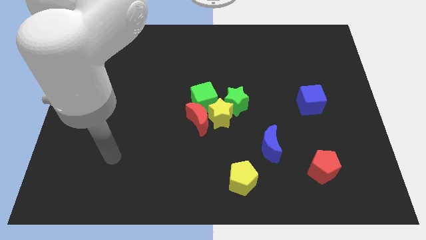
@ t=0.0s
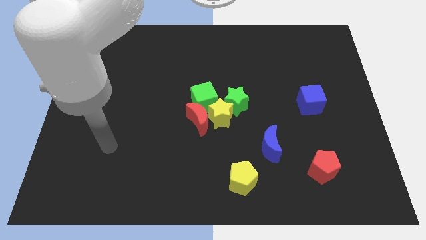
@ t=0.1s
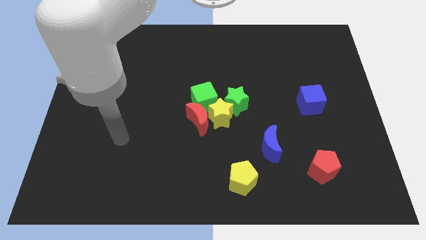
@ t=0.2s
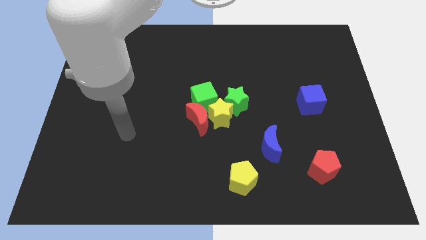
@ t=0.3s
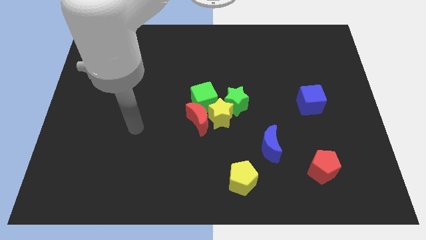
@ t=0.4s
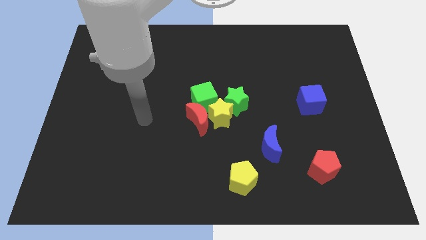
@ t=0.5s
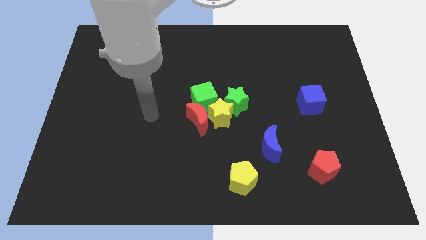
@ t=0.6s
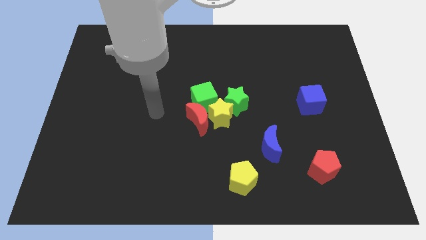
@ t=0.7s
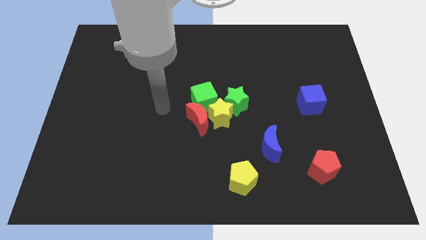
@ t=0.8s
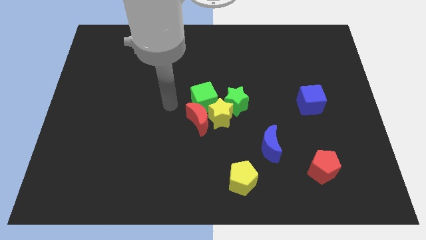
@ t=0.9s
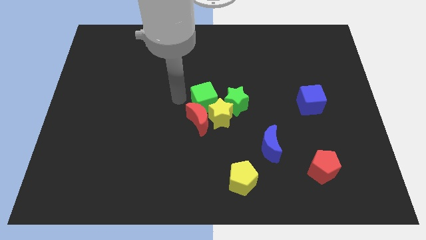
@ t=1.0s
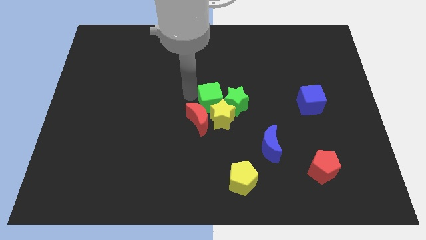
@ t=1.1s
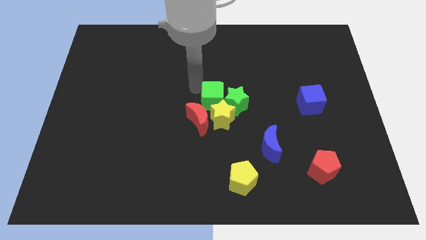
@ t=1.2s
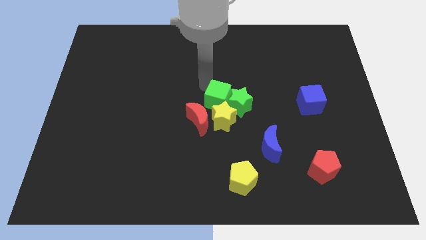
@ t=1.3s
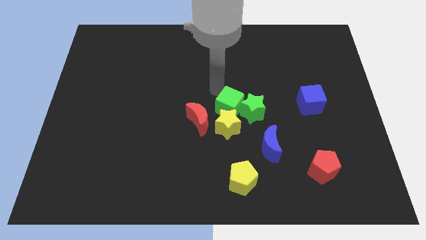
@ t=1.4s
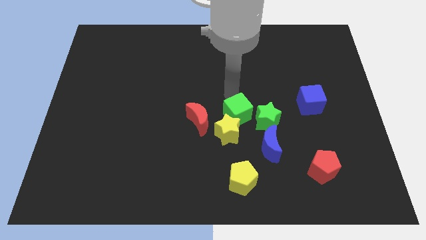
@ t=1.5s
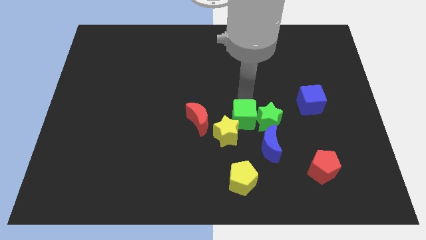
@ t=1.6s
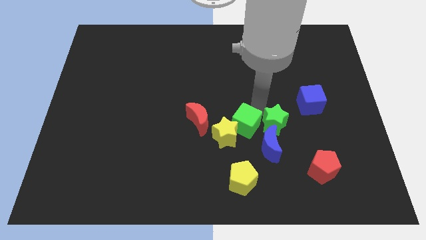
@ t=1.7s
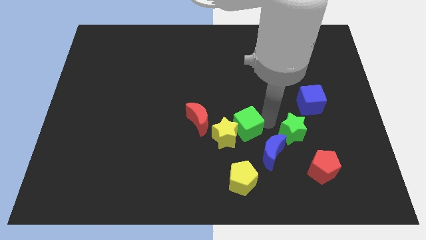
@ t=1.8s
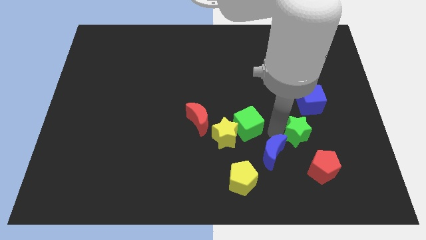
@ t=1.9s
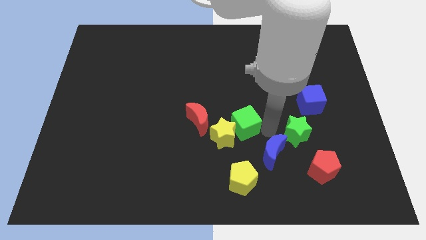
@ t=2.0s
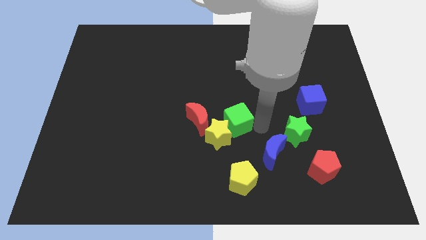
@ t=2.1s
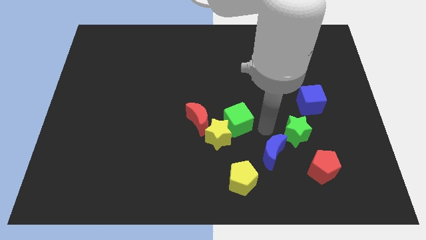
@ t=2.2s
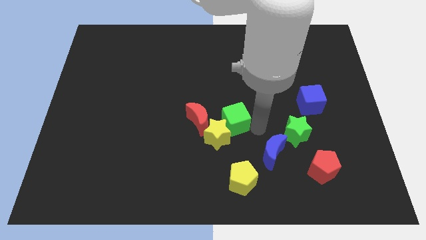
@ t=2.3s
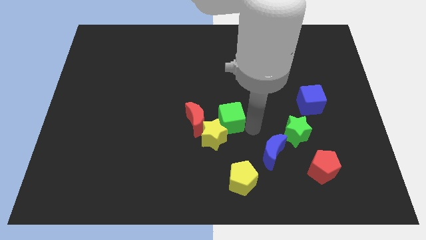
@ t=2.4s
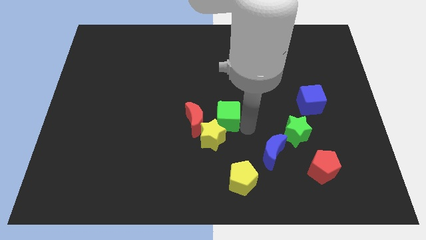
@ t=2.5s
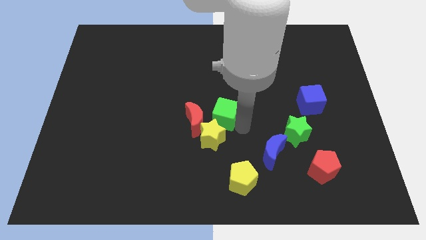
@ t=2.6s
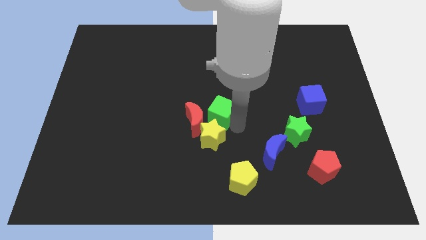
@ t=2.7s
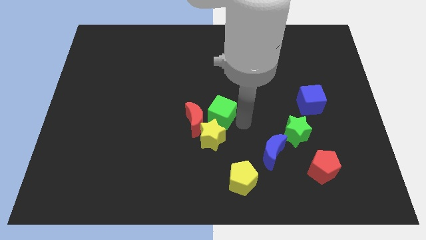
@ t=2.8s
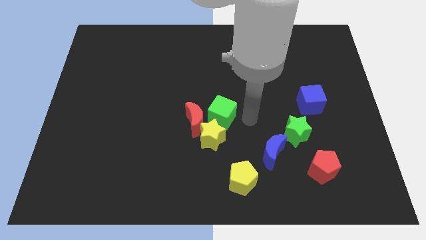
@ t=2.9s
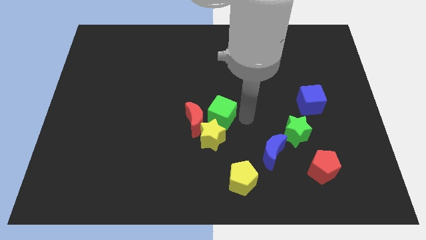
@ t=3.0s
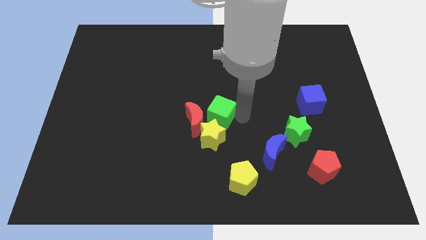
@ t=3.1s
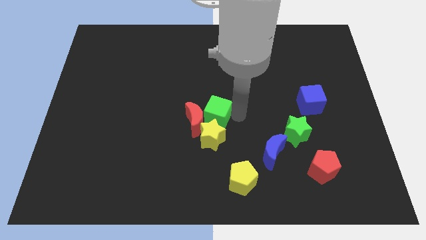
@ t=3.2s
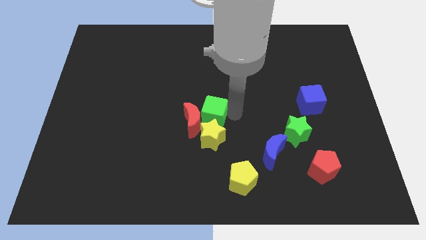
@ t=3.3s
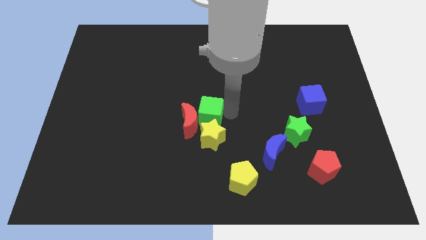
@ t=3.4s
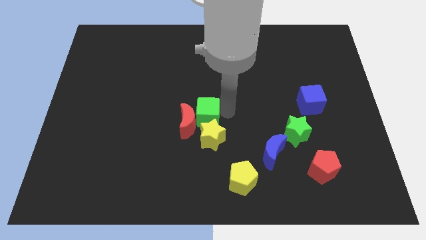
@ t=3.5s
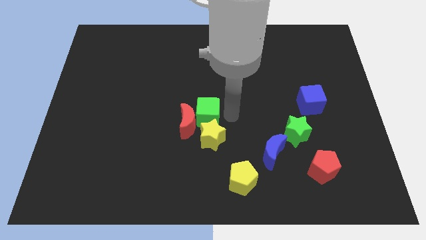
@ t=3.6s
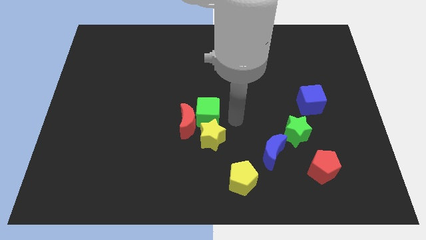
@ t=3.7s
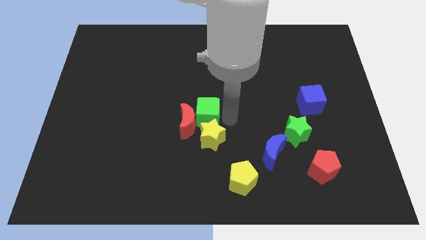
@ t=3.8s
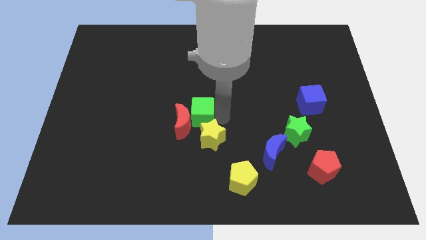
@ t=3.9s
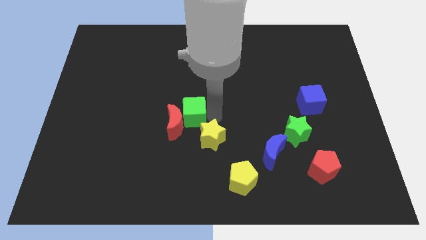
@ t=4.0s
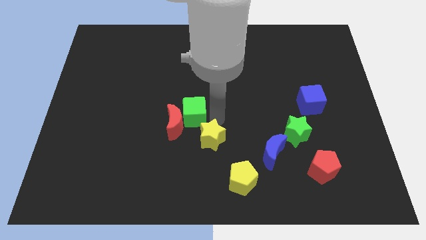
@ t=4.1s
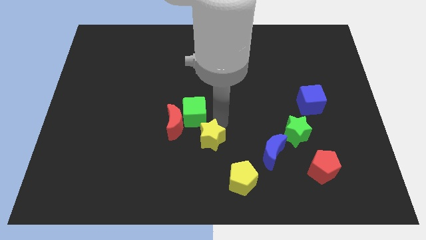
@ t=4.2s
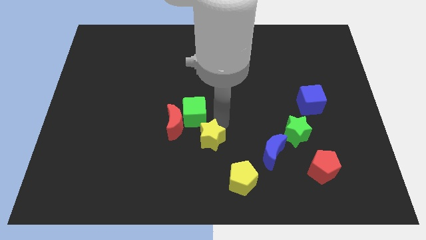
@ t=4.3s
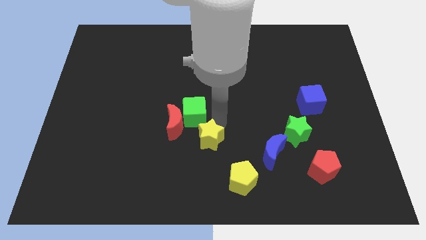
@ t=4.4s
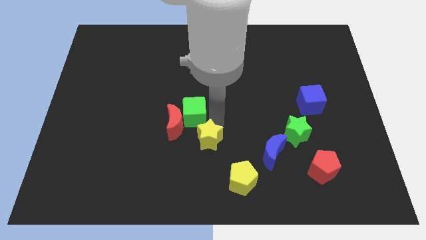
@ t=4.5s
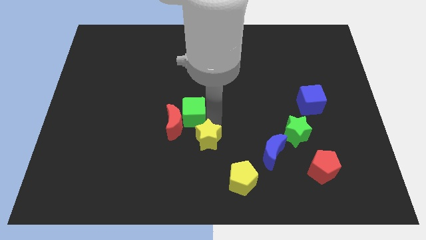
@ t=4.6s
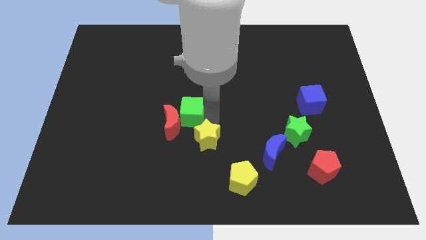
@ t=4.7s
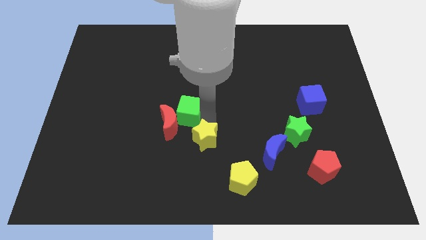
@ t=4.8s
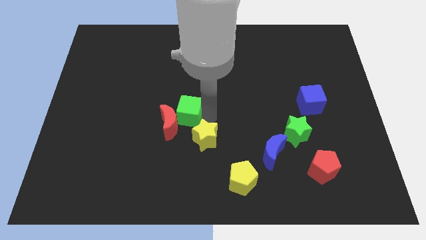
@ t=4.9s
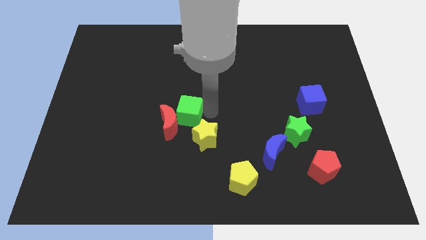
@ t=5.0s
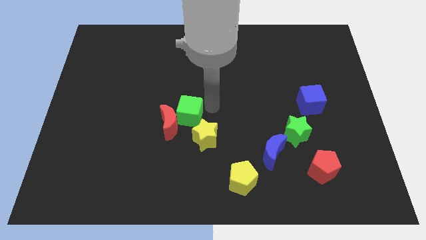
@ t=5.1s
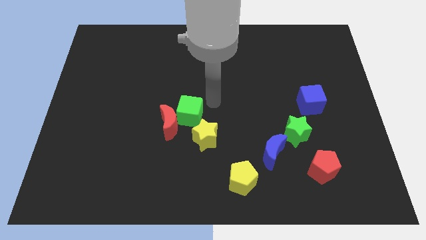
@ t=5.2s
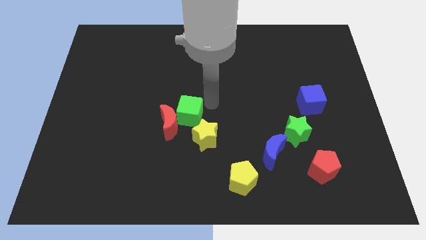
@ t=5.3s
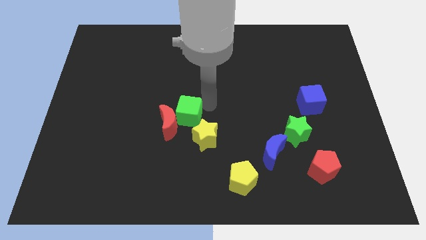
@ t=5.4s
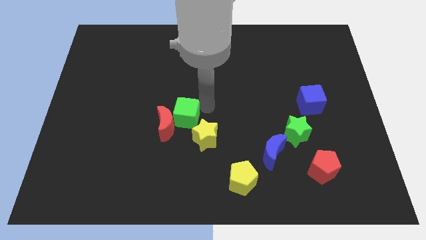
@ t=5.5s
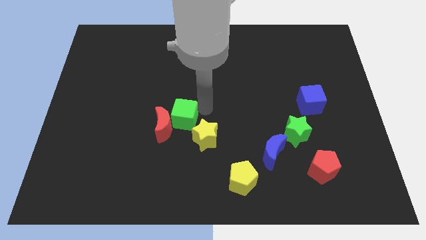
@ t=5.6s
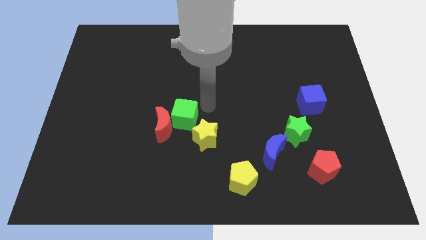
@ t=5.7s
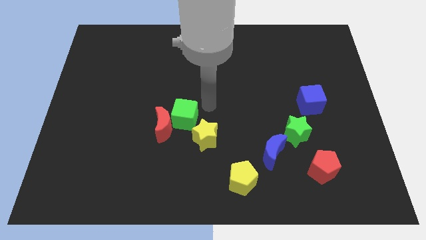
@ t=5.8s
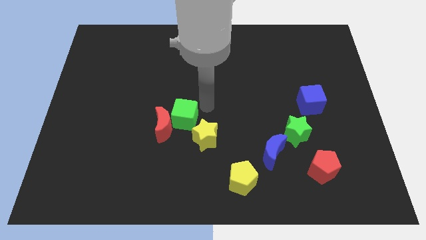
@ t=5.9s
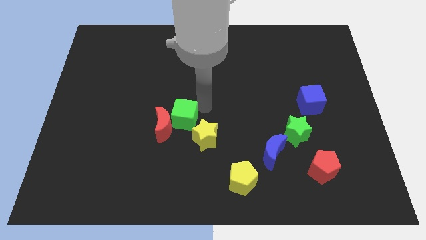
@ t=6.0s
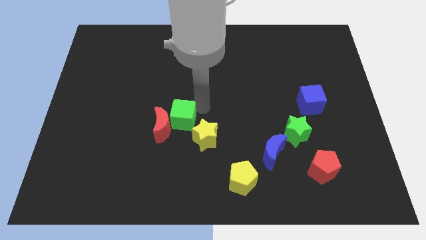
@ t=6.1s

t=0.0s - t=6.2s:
slightly slide the green cube down and left diagonally

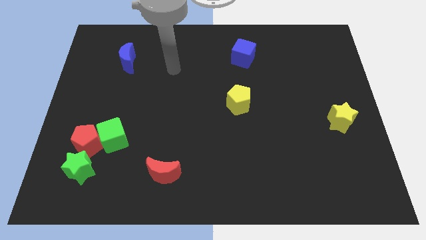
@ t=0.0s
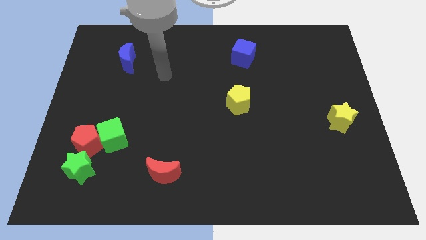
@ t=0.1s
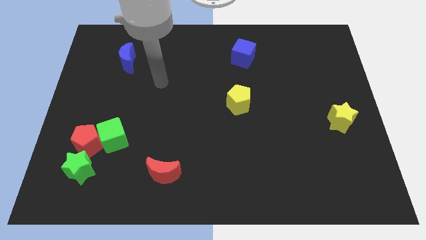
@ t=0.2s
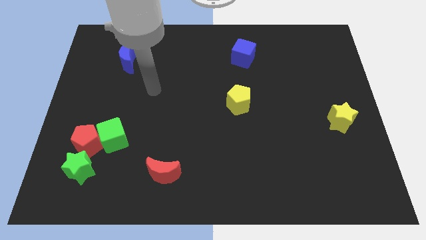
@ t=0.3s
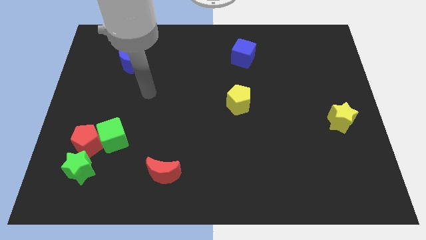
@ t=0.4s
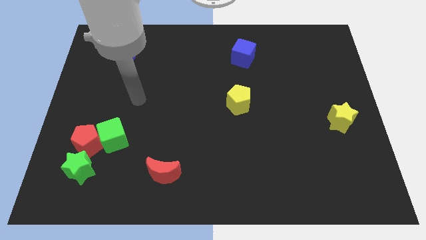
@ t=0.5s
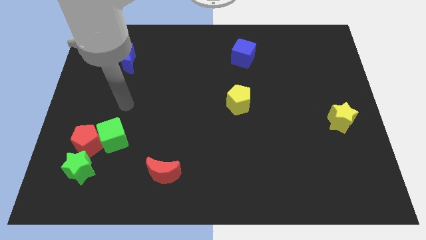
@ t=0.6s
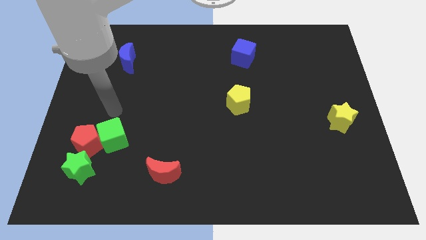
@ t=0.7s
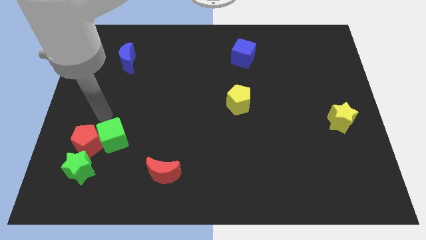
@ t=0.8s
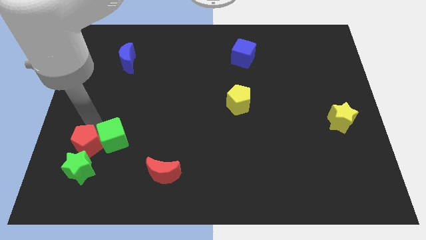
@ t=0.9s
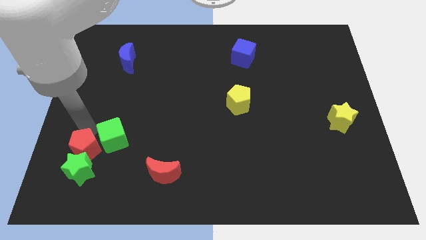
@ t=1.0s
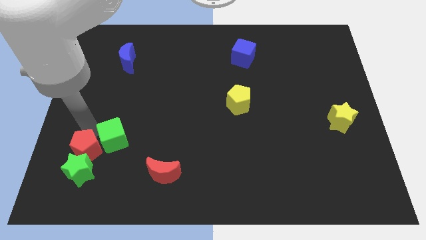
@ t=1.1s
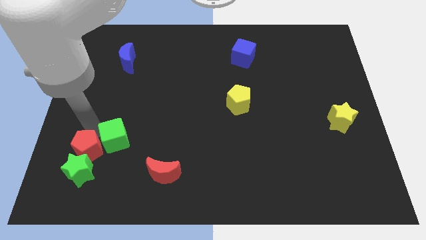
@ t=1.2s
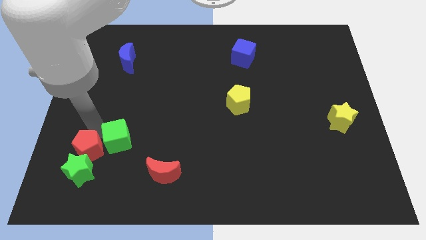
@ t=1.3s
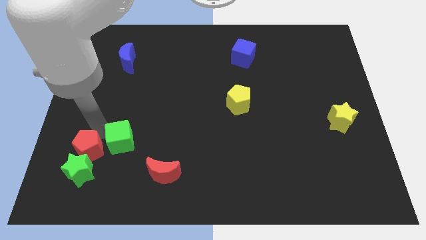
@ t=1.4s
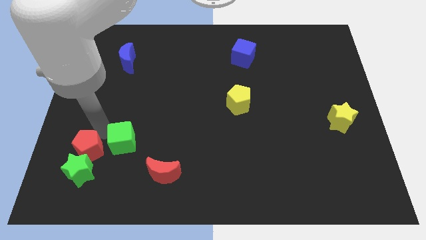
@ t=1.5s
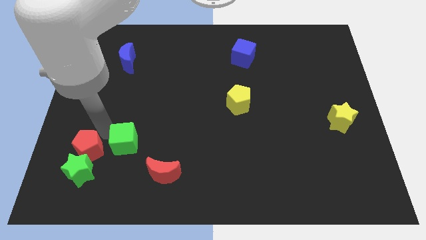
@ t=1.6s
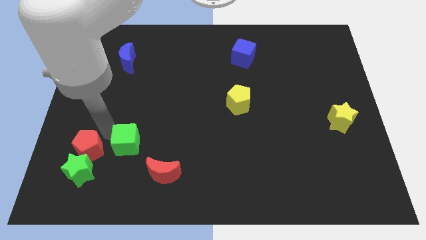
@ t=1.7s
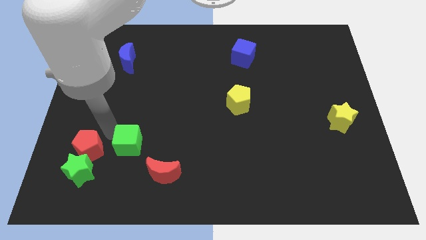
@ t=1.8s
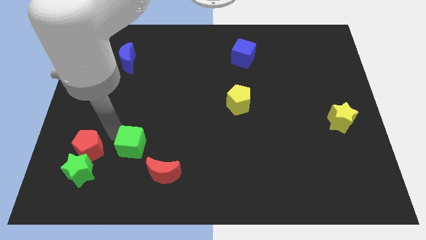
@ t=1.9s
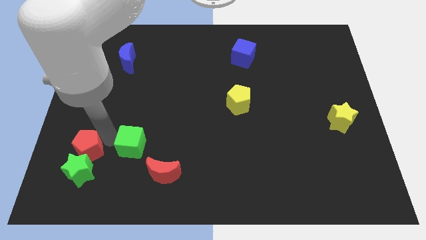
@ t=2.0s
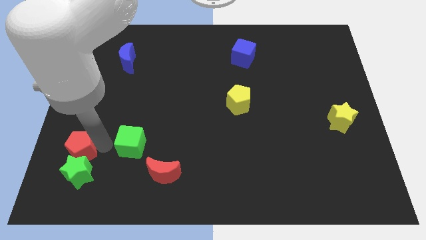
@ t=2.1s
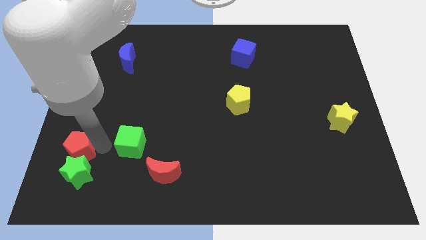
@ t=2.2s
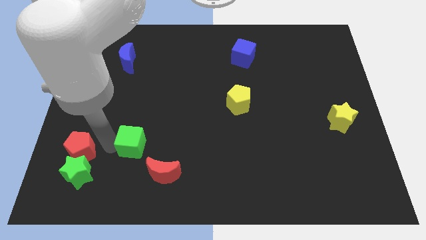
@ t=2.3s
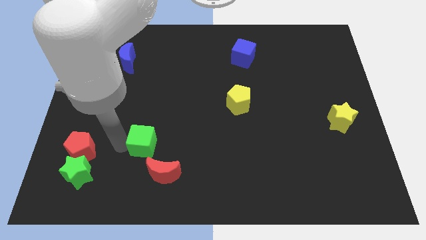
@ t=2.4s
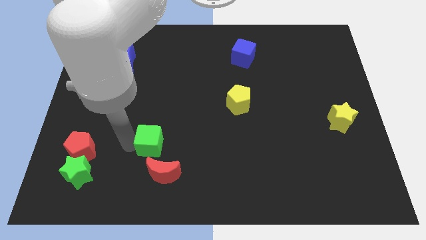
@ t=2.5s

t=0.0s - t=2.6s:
push the green cube to the right slightly
